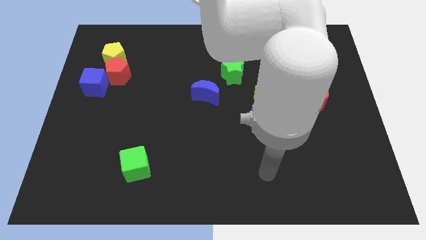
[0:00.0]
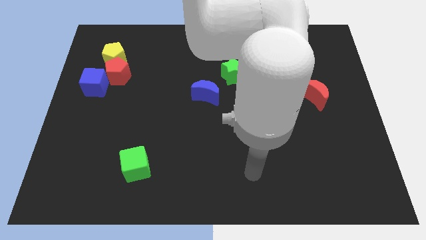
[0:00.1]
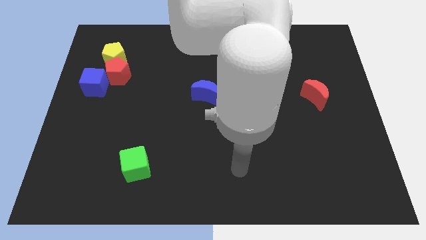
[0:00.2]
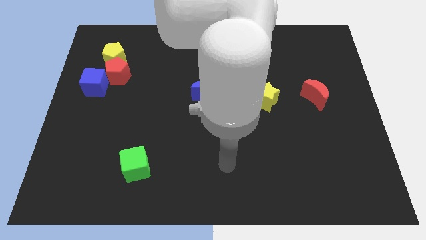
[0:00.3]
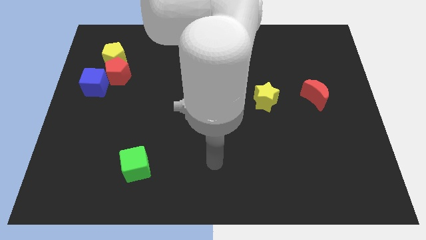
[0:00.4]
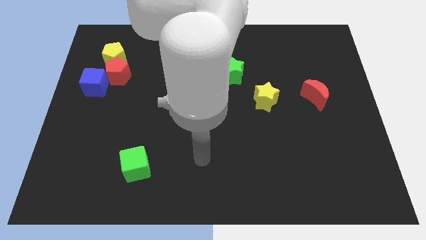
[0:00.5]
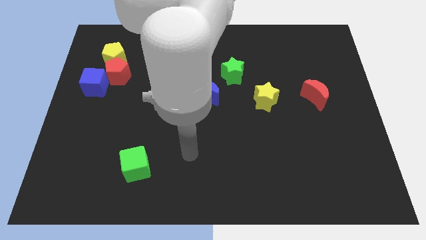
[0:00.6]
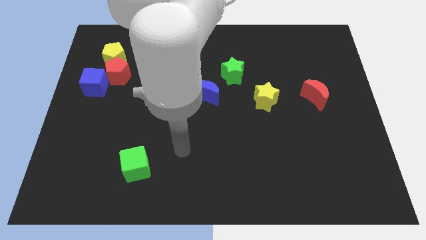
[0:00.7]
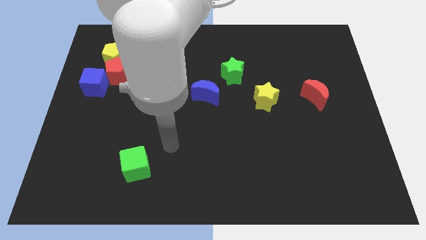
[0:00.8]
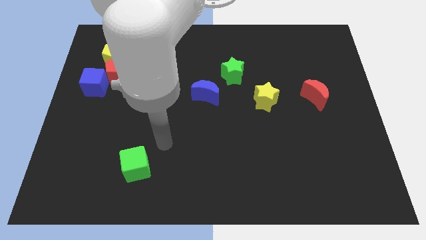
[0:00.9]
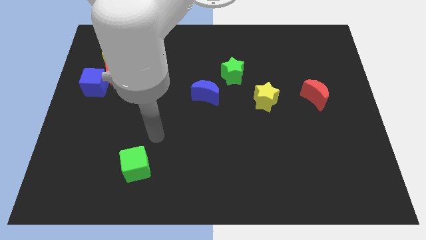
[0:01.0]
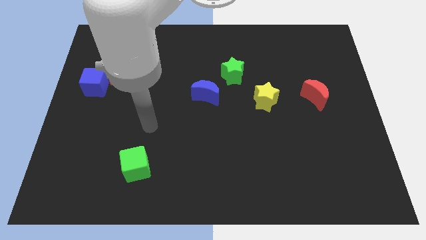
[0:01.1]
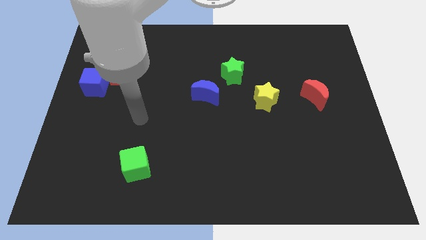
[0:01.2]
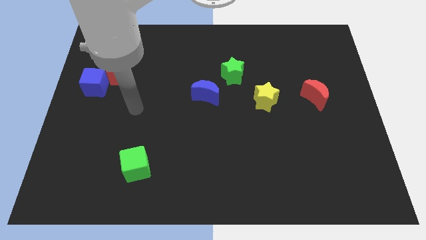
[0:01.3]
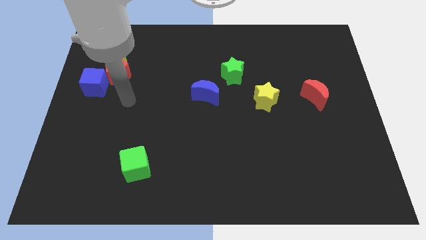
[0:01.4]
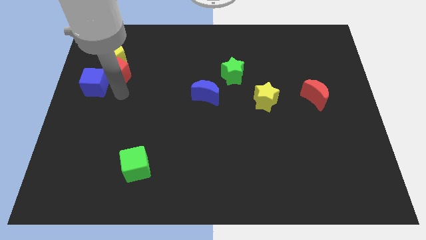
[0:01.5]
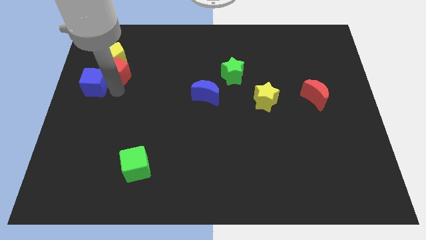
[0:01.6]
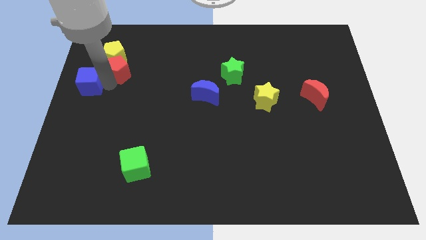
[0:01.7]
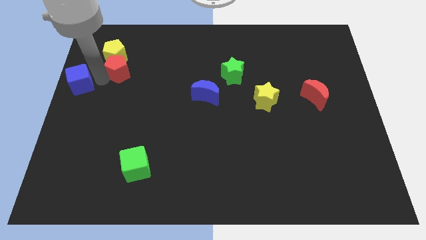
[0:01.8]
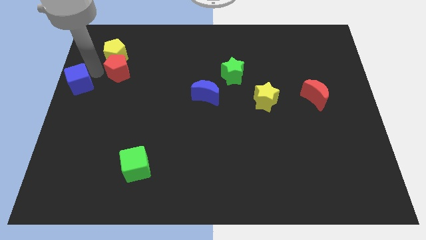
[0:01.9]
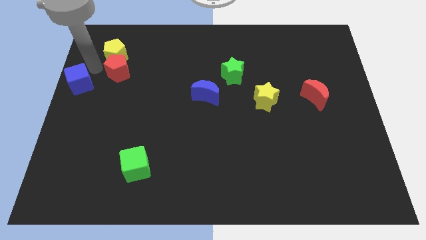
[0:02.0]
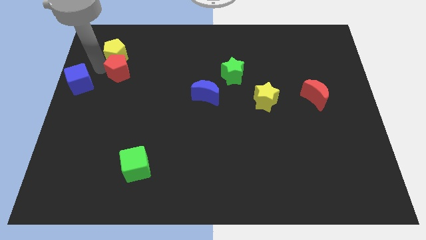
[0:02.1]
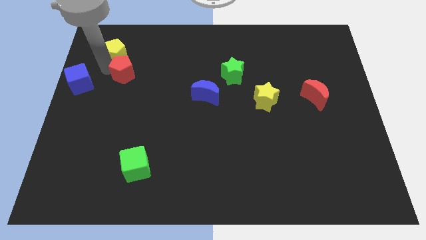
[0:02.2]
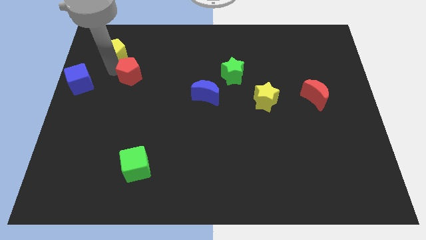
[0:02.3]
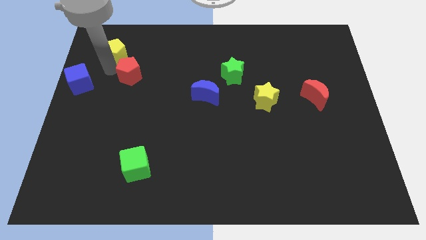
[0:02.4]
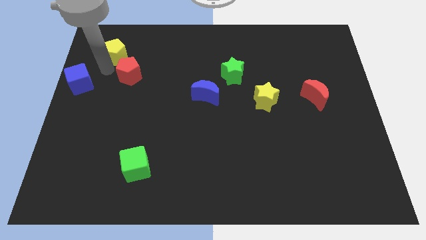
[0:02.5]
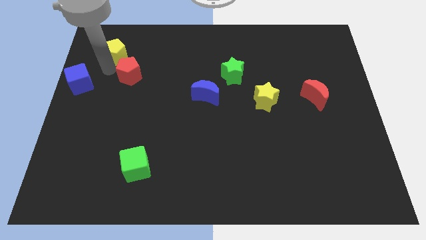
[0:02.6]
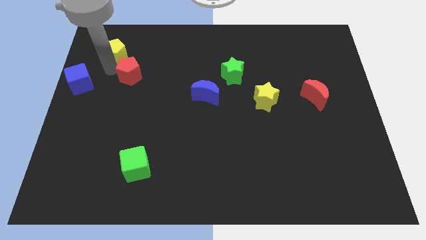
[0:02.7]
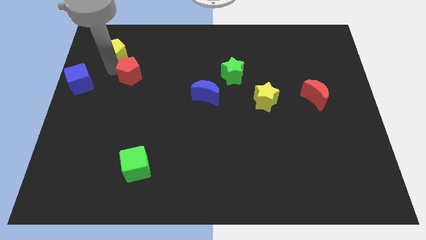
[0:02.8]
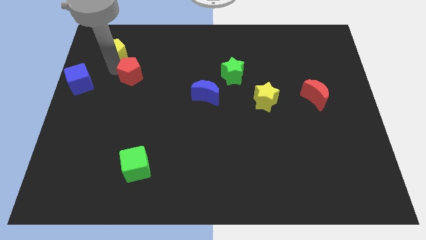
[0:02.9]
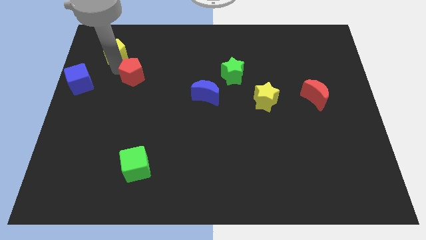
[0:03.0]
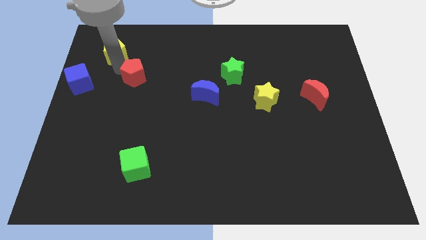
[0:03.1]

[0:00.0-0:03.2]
pull the red pentagon apart from the yellow pentagon and blue cube

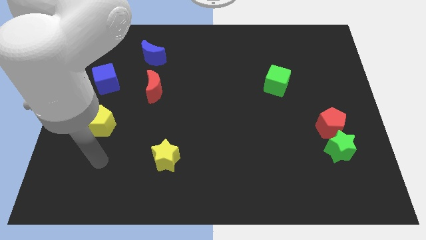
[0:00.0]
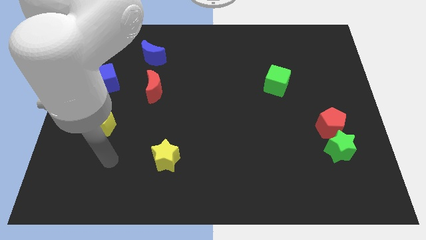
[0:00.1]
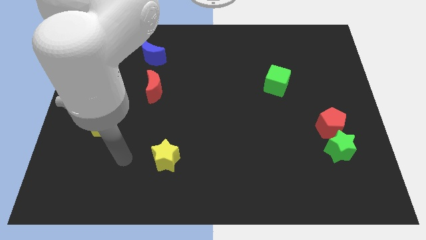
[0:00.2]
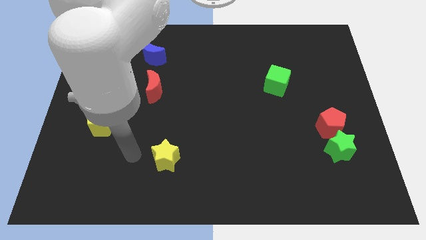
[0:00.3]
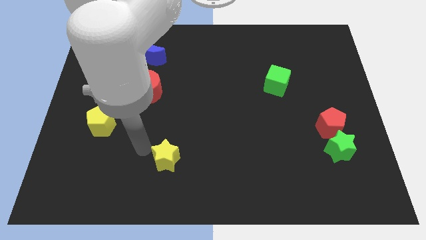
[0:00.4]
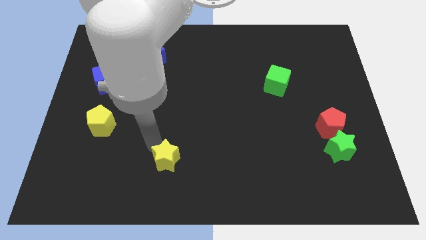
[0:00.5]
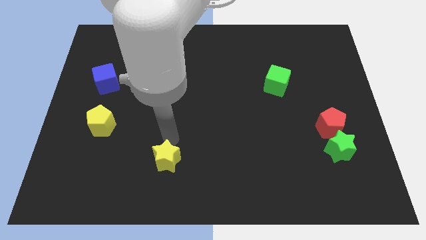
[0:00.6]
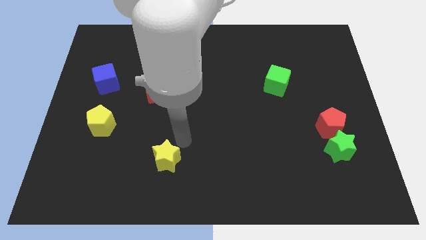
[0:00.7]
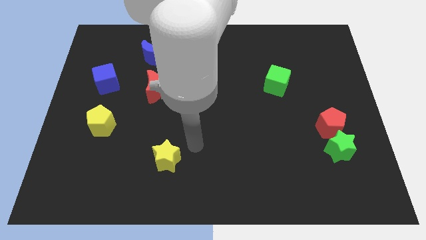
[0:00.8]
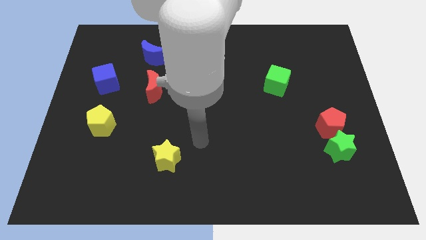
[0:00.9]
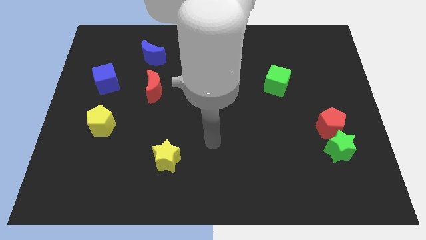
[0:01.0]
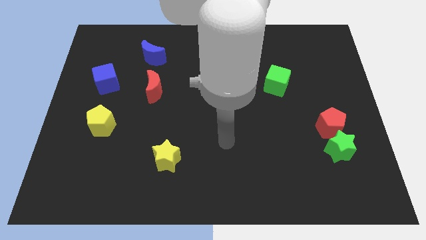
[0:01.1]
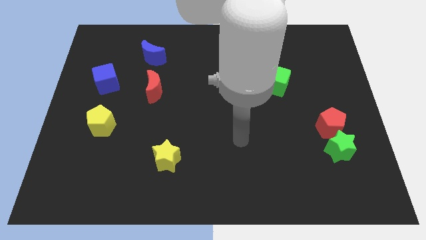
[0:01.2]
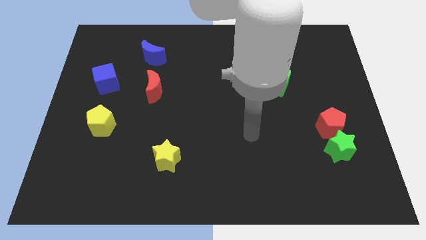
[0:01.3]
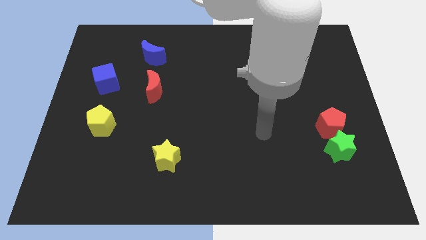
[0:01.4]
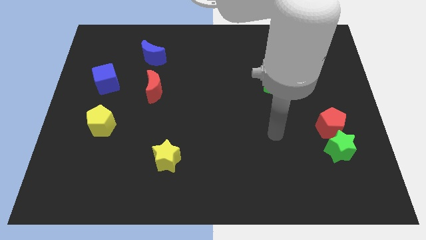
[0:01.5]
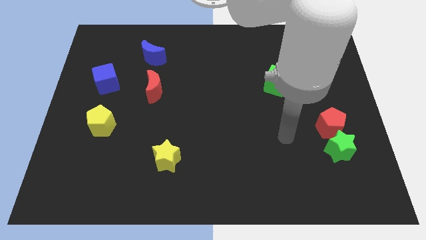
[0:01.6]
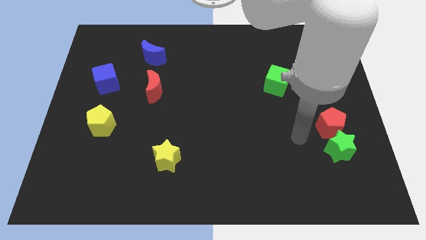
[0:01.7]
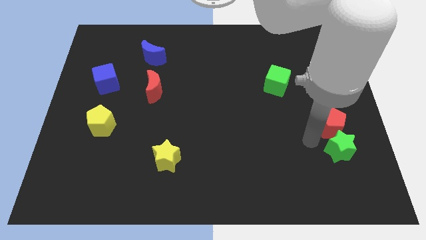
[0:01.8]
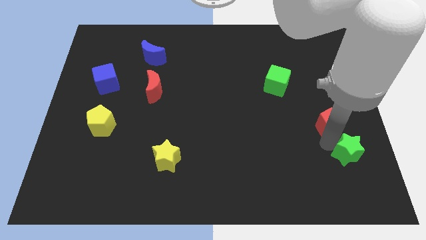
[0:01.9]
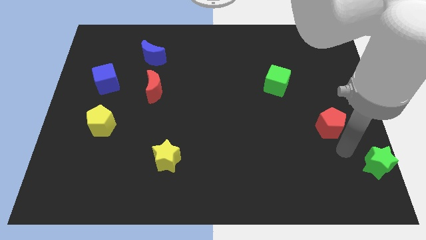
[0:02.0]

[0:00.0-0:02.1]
move the red pentagon away from the green star

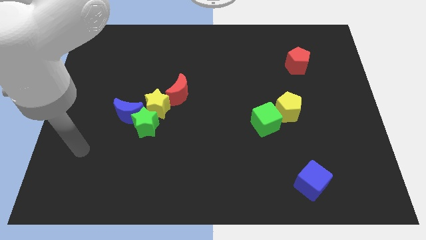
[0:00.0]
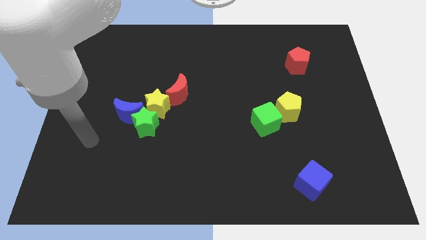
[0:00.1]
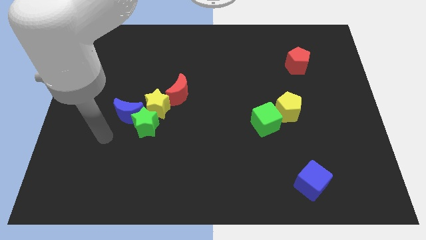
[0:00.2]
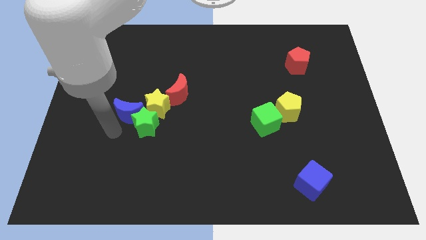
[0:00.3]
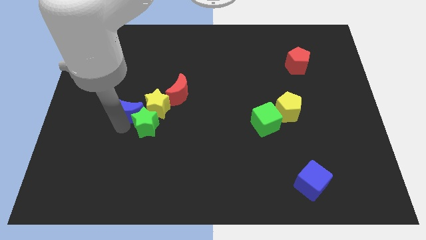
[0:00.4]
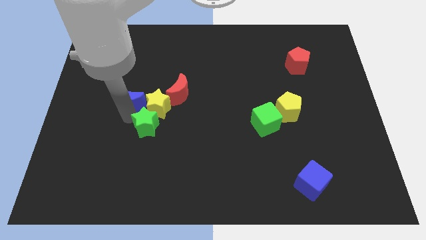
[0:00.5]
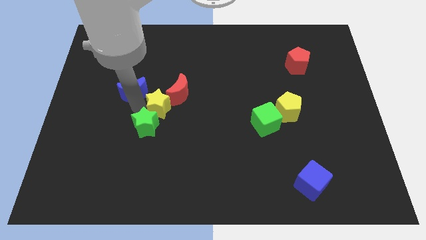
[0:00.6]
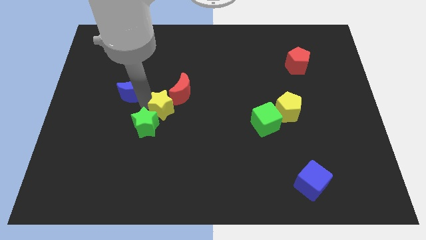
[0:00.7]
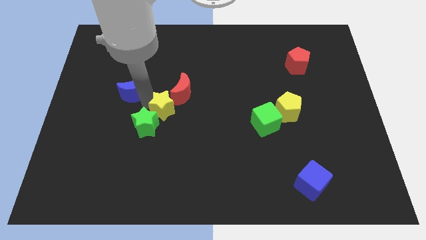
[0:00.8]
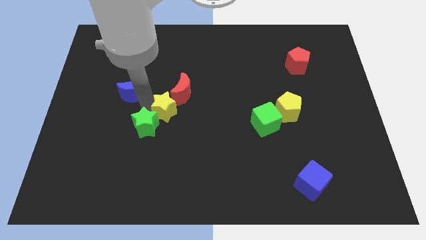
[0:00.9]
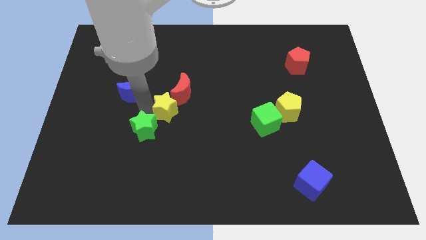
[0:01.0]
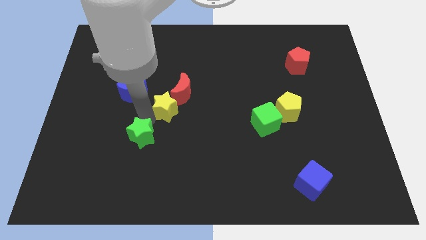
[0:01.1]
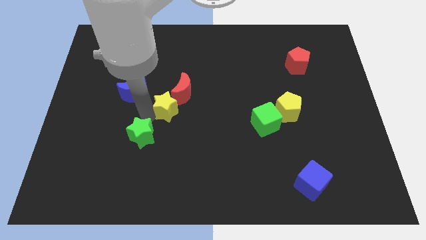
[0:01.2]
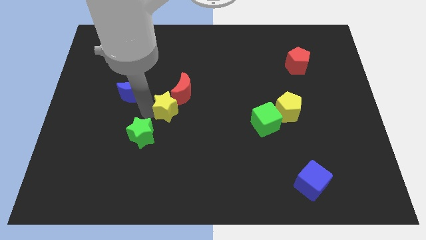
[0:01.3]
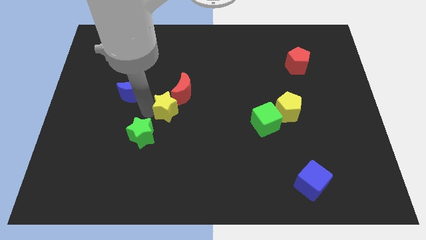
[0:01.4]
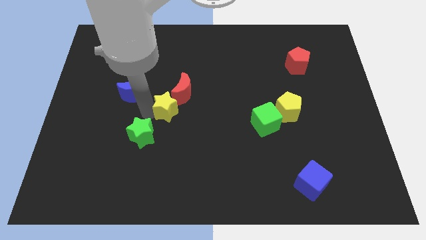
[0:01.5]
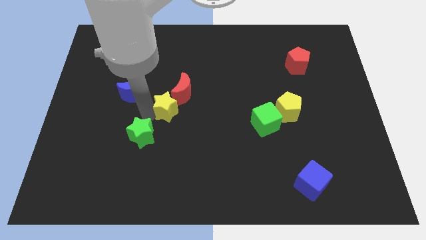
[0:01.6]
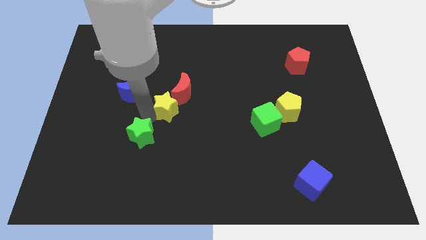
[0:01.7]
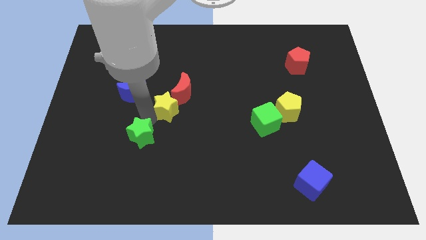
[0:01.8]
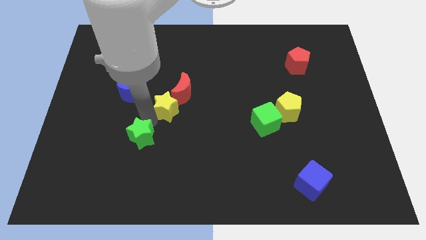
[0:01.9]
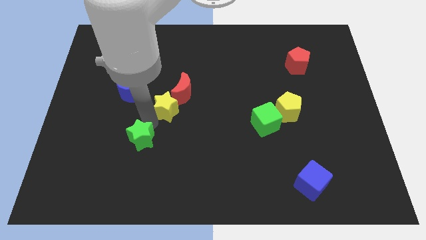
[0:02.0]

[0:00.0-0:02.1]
move the green star away from the blue moon and yellow star

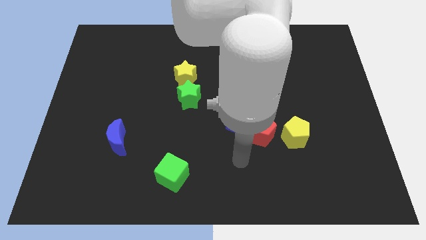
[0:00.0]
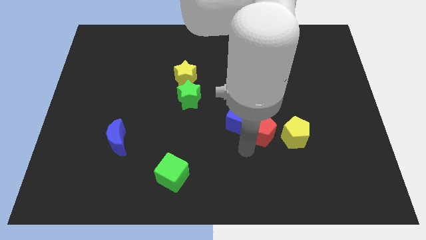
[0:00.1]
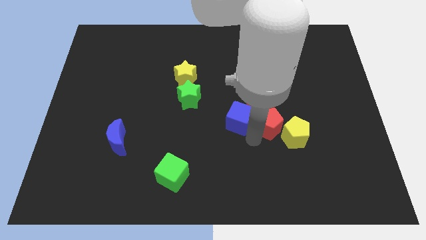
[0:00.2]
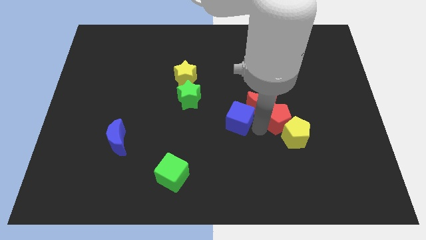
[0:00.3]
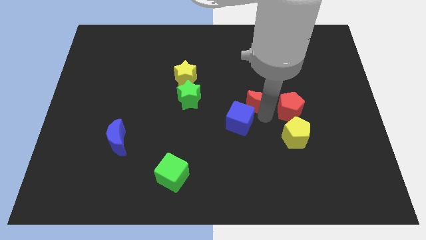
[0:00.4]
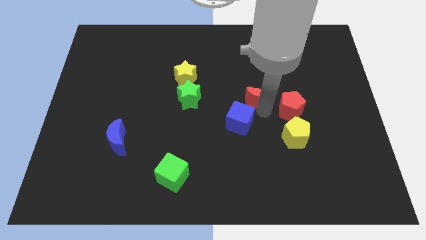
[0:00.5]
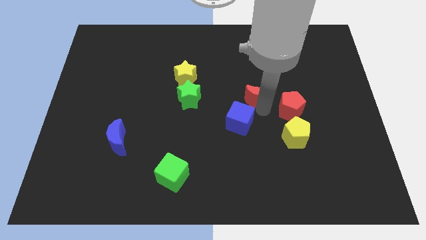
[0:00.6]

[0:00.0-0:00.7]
pull the blue cube apart from the red pentagon and red moon

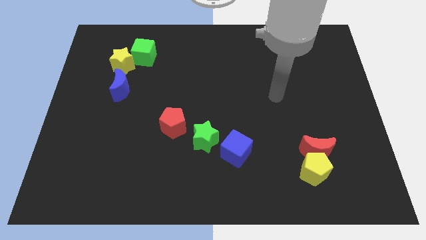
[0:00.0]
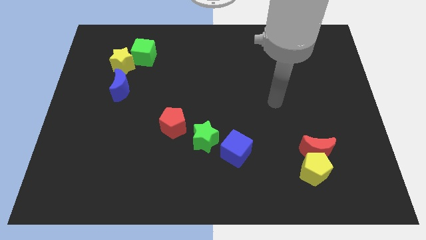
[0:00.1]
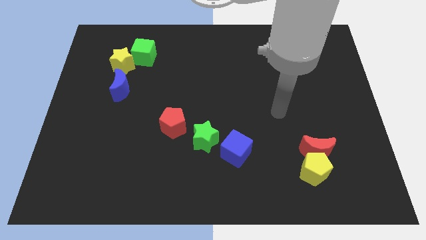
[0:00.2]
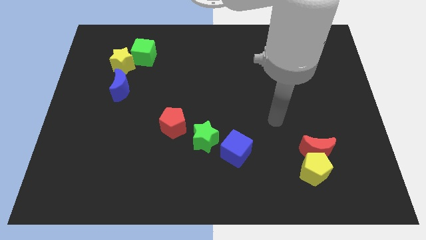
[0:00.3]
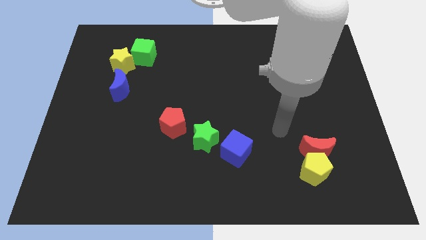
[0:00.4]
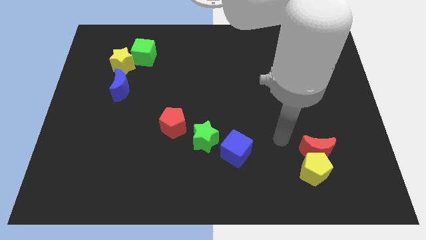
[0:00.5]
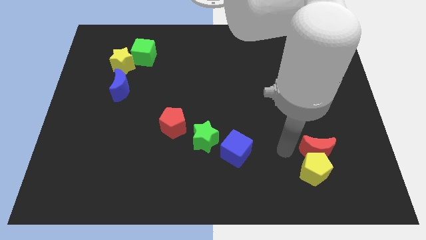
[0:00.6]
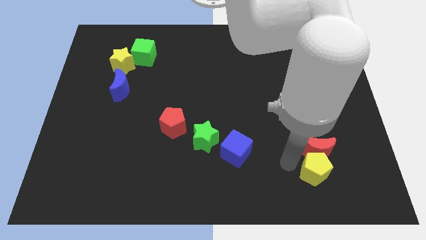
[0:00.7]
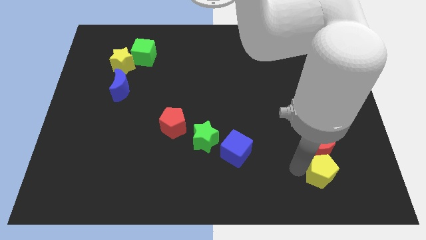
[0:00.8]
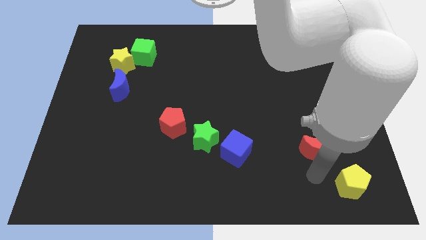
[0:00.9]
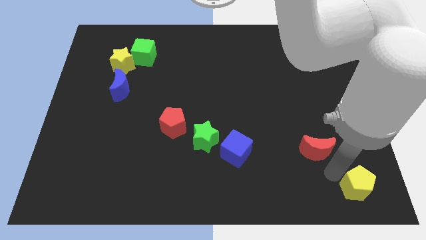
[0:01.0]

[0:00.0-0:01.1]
move the red moon away from the yellow pentagon
